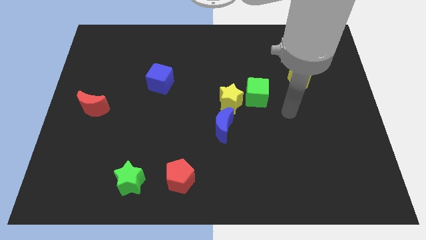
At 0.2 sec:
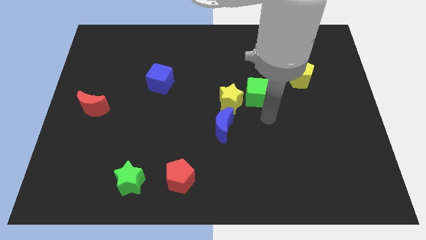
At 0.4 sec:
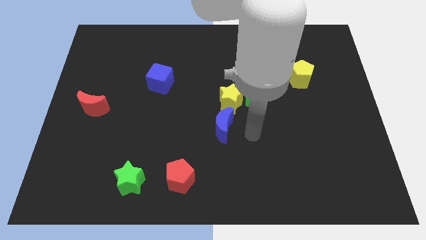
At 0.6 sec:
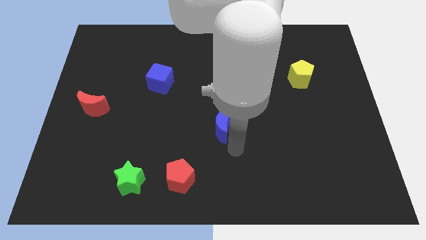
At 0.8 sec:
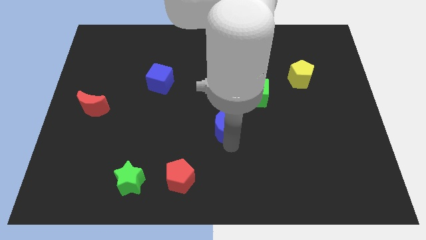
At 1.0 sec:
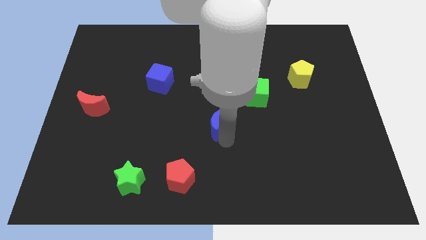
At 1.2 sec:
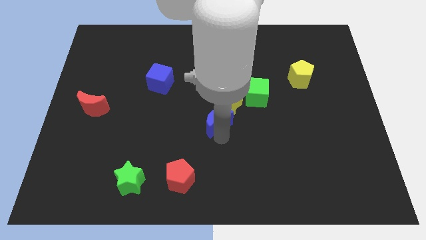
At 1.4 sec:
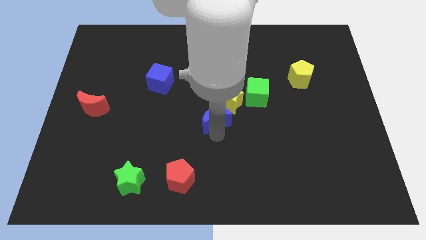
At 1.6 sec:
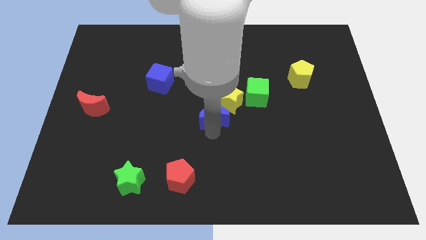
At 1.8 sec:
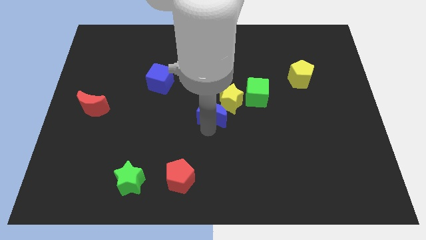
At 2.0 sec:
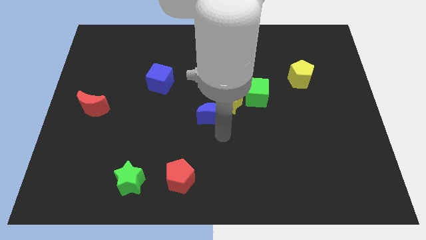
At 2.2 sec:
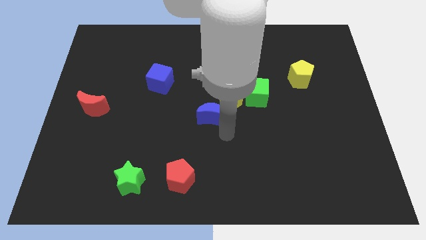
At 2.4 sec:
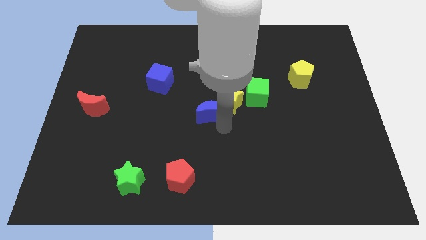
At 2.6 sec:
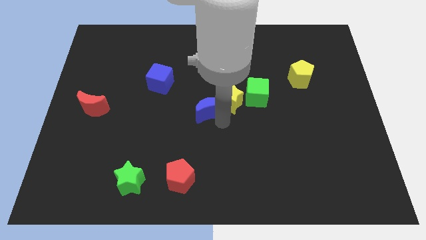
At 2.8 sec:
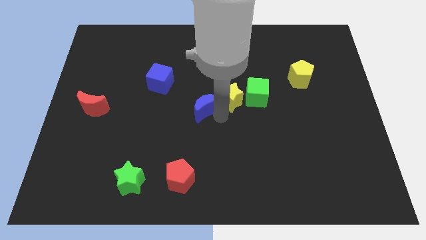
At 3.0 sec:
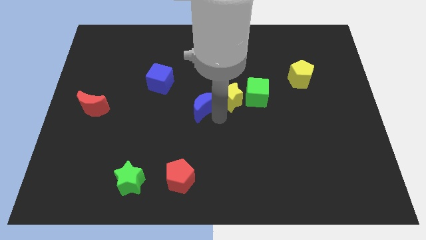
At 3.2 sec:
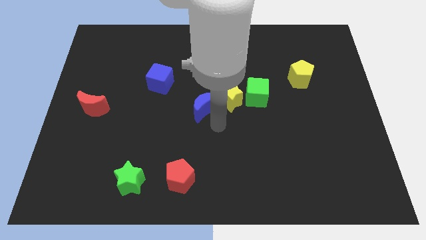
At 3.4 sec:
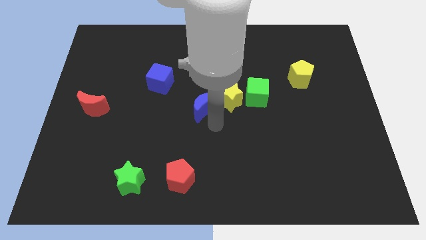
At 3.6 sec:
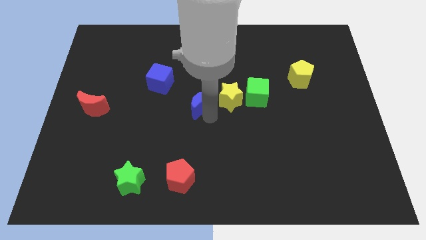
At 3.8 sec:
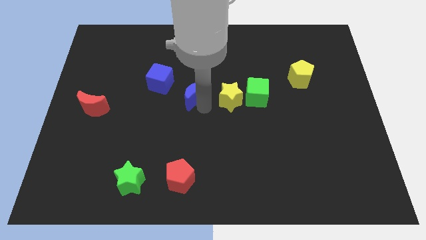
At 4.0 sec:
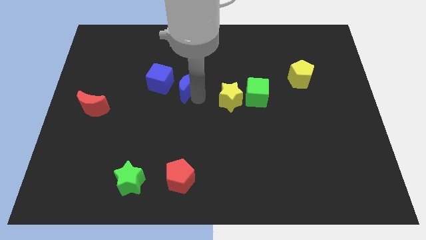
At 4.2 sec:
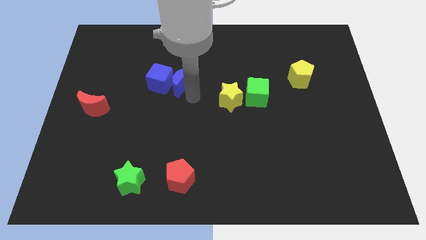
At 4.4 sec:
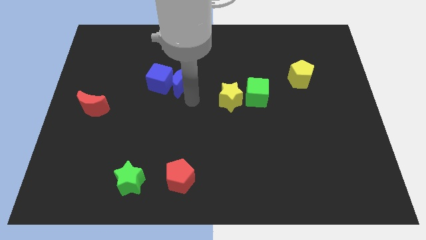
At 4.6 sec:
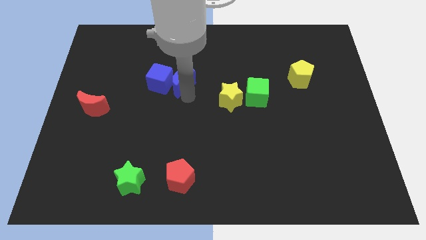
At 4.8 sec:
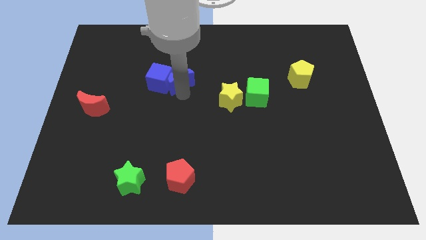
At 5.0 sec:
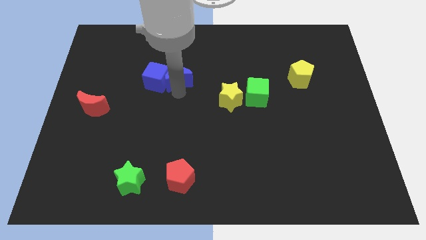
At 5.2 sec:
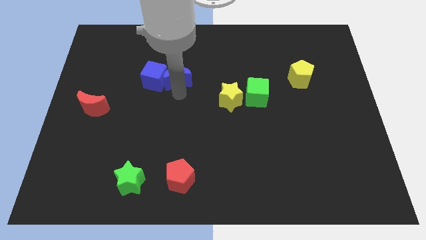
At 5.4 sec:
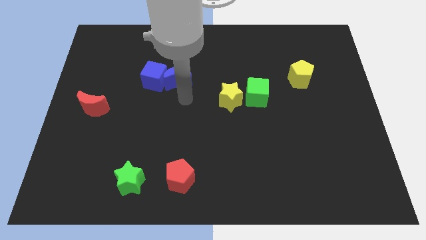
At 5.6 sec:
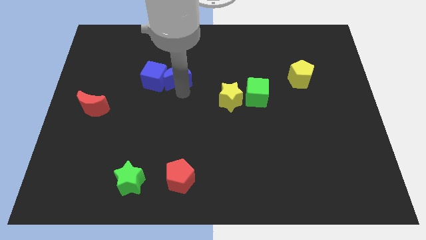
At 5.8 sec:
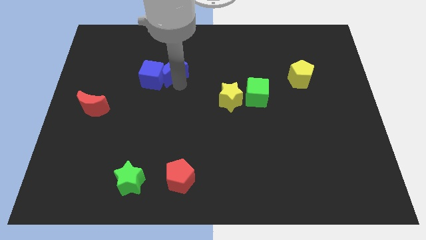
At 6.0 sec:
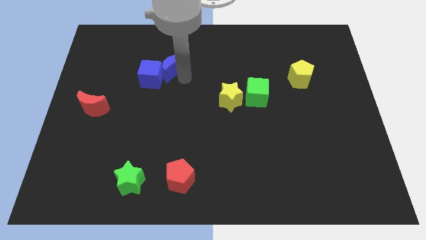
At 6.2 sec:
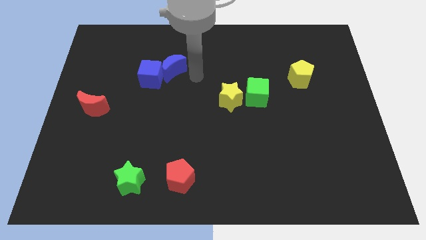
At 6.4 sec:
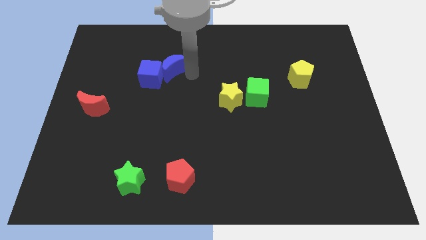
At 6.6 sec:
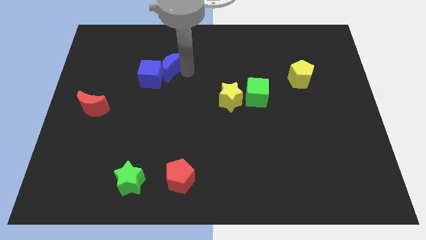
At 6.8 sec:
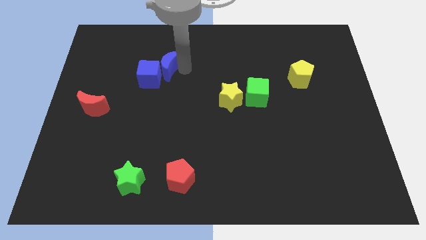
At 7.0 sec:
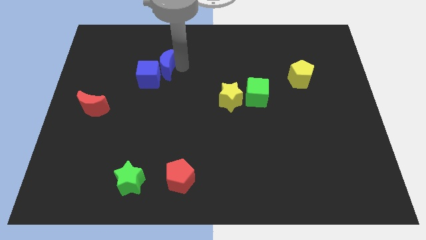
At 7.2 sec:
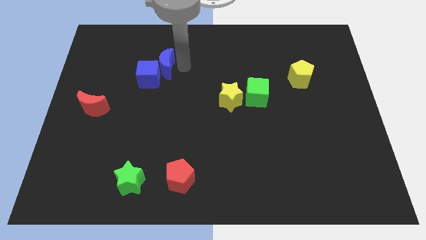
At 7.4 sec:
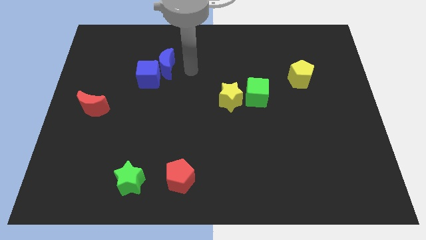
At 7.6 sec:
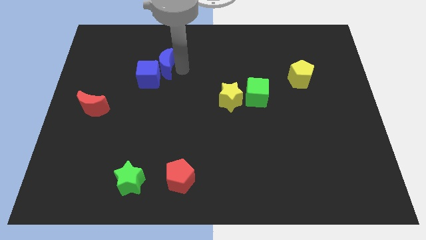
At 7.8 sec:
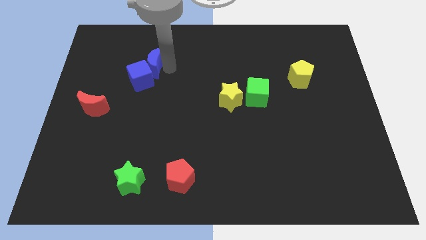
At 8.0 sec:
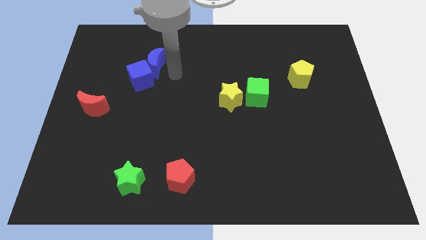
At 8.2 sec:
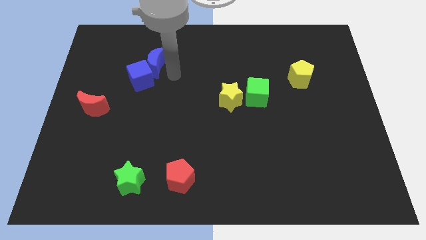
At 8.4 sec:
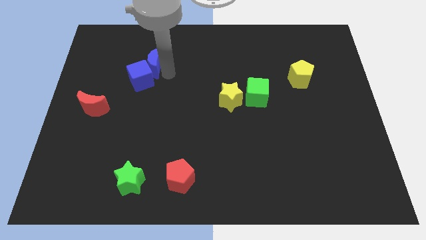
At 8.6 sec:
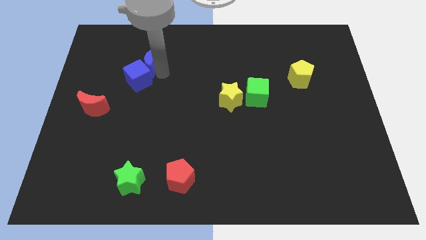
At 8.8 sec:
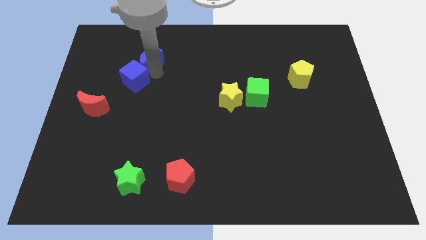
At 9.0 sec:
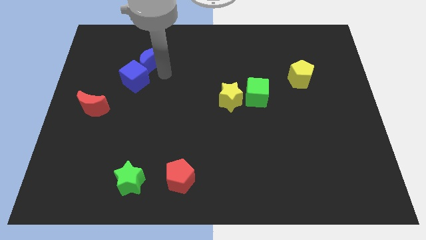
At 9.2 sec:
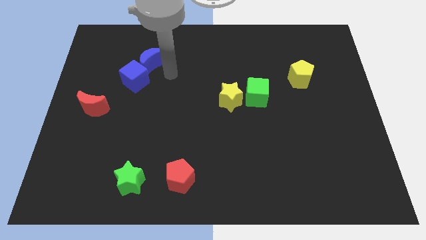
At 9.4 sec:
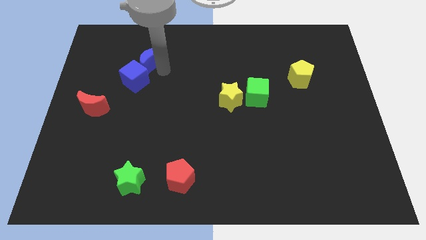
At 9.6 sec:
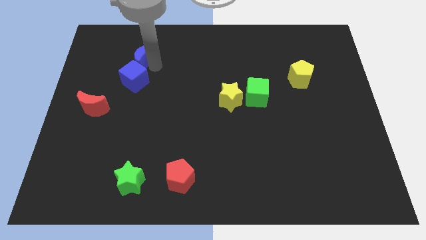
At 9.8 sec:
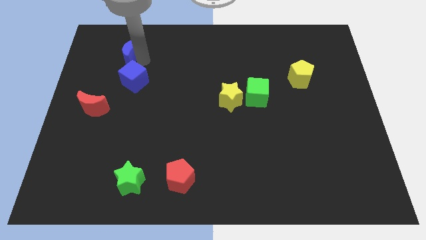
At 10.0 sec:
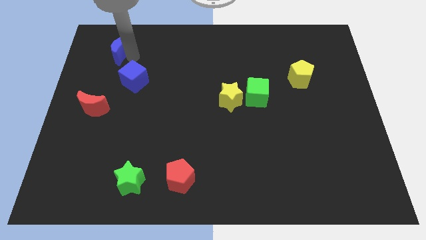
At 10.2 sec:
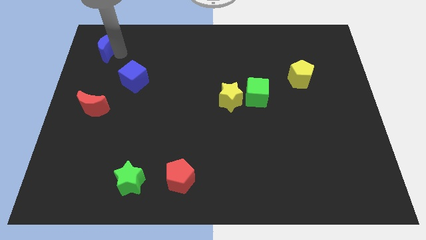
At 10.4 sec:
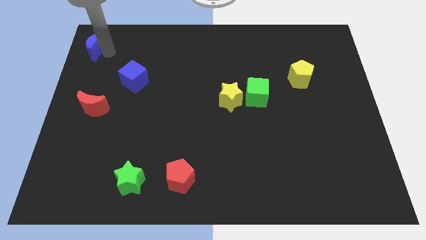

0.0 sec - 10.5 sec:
put the blue moon to the top left

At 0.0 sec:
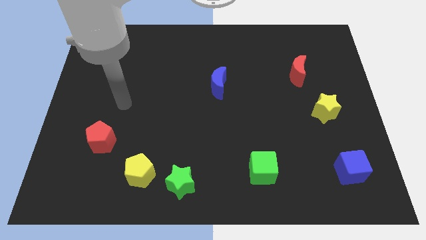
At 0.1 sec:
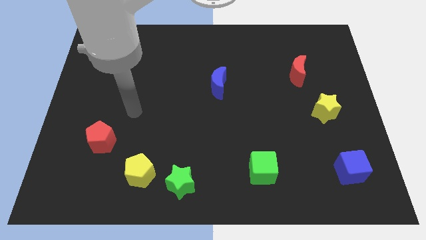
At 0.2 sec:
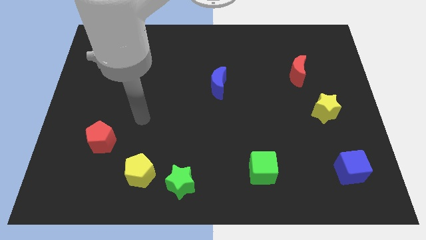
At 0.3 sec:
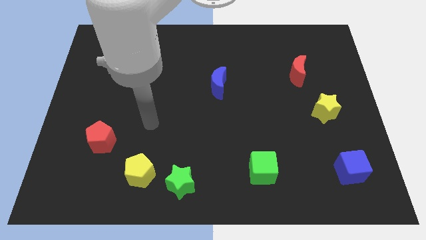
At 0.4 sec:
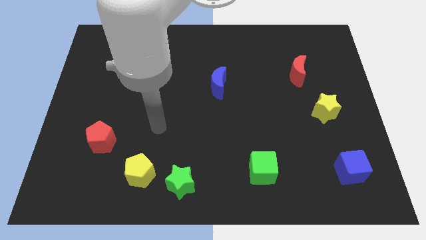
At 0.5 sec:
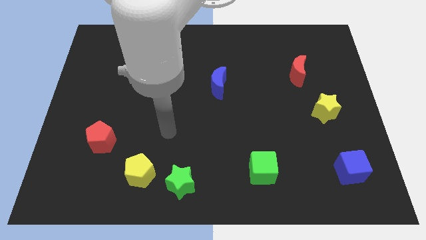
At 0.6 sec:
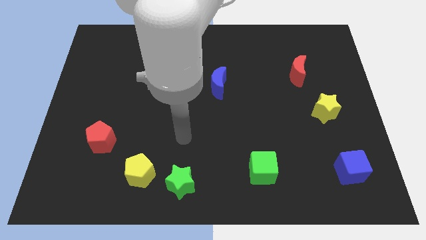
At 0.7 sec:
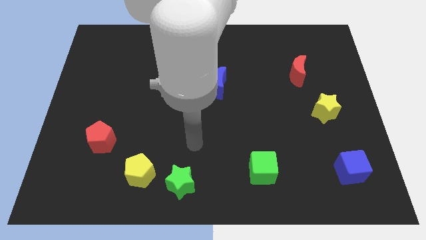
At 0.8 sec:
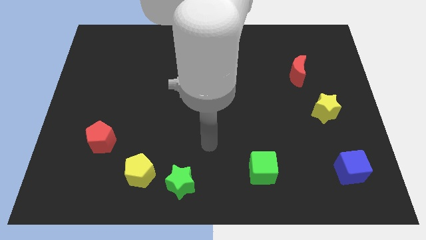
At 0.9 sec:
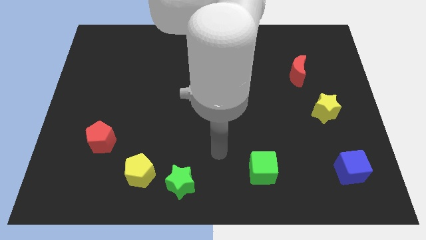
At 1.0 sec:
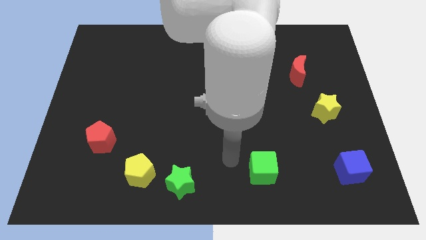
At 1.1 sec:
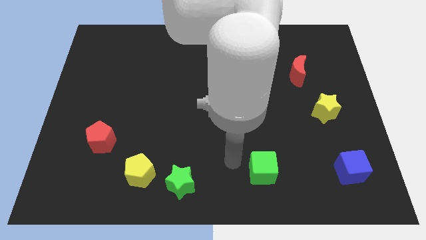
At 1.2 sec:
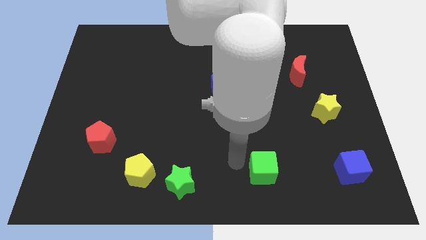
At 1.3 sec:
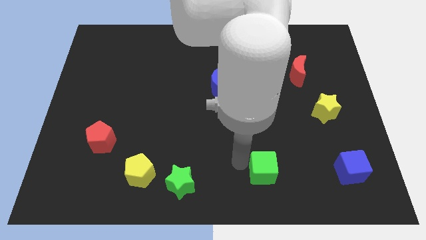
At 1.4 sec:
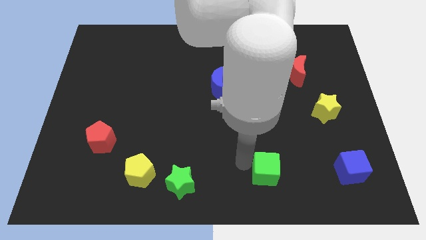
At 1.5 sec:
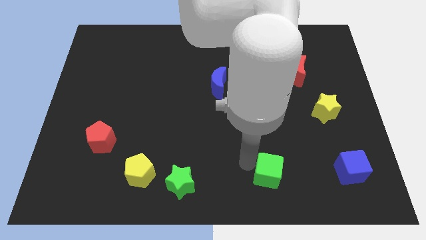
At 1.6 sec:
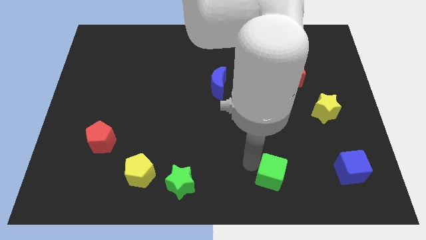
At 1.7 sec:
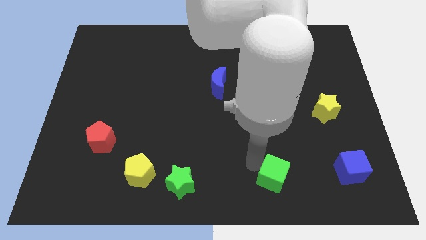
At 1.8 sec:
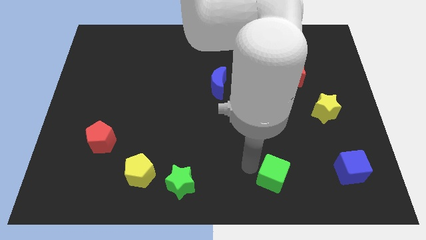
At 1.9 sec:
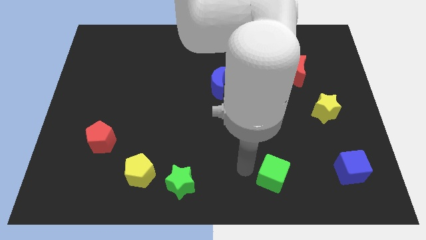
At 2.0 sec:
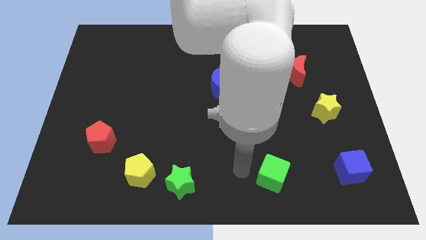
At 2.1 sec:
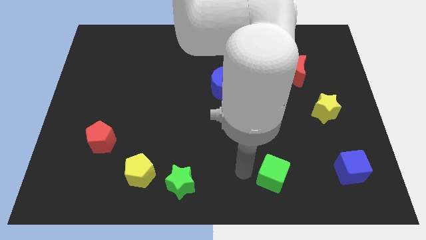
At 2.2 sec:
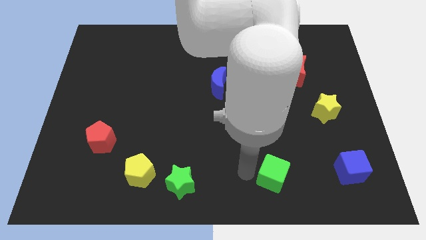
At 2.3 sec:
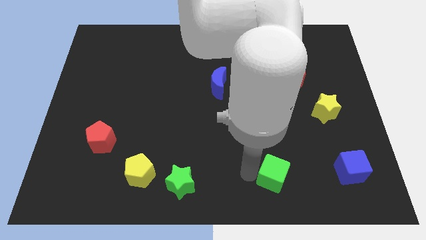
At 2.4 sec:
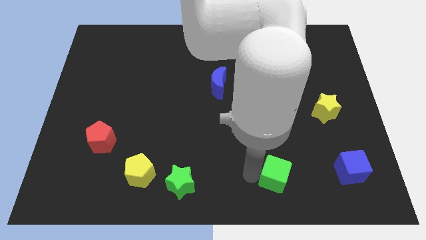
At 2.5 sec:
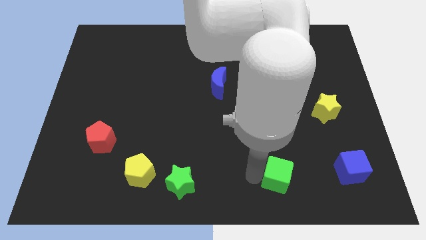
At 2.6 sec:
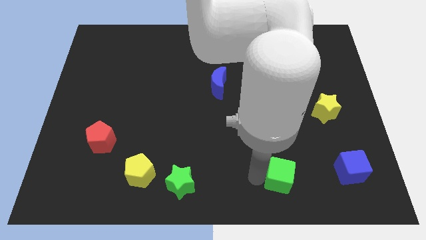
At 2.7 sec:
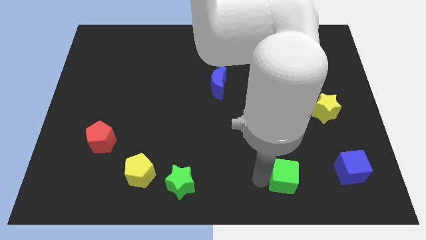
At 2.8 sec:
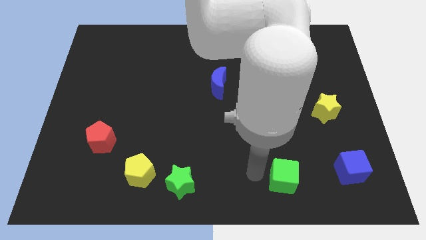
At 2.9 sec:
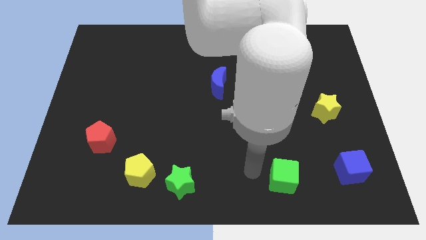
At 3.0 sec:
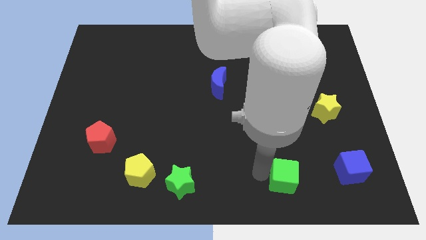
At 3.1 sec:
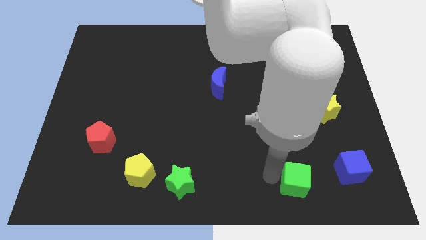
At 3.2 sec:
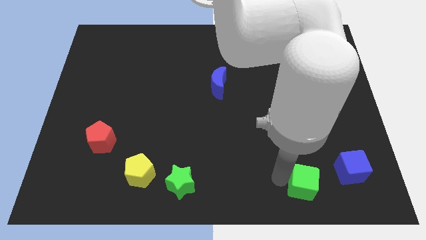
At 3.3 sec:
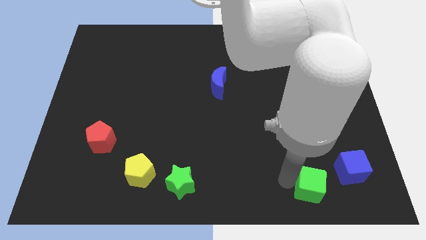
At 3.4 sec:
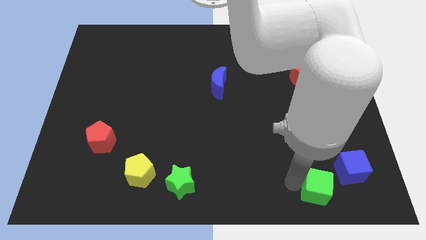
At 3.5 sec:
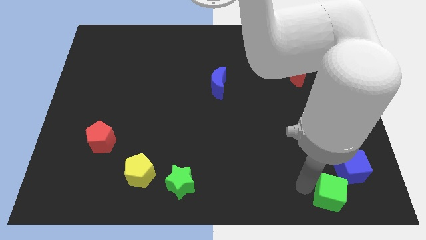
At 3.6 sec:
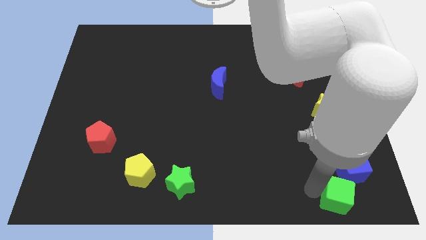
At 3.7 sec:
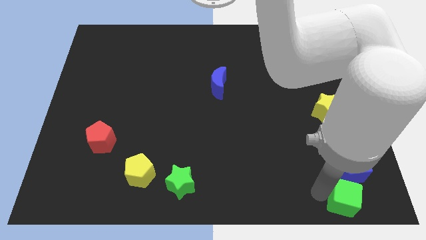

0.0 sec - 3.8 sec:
slide the green cube to the bottom right corner
